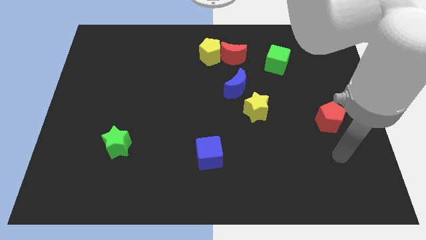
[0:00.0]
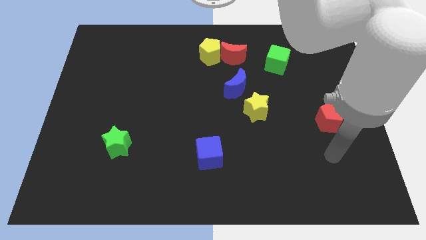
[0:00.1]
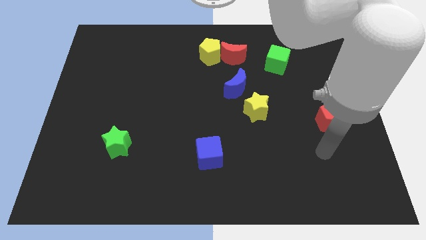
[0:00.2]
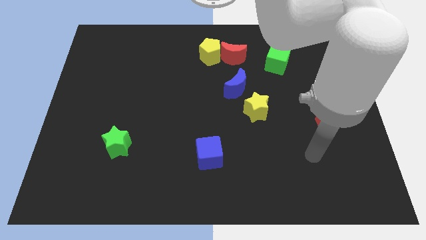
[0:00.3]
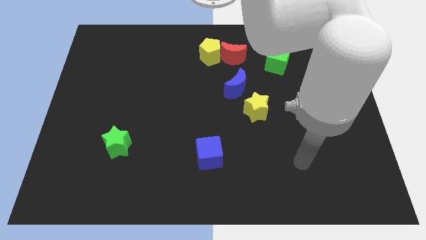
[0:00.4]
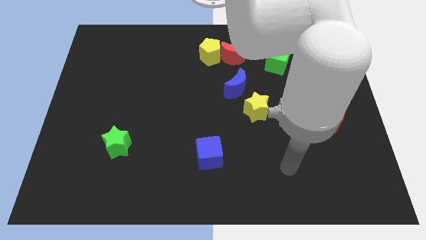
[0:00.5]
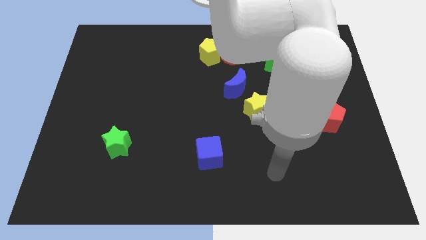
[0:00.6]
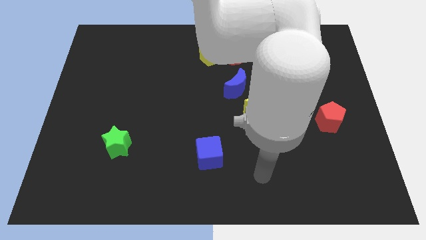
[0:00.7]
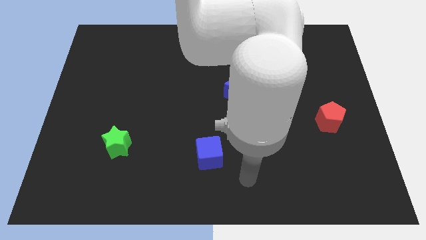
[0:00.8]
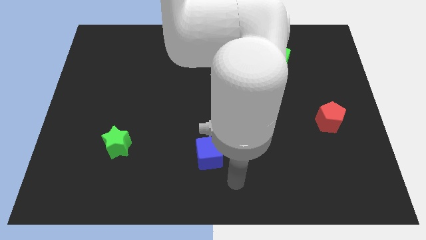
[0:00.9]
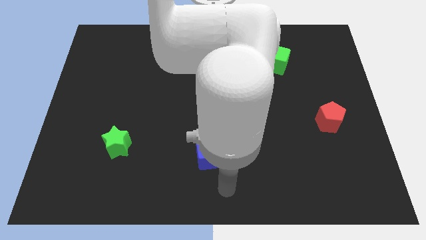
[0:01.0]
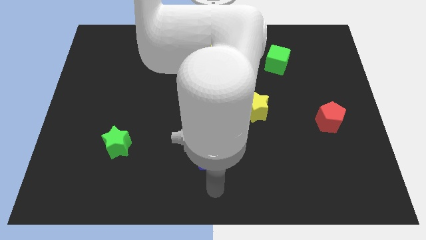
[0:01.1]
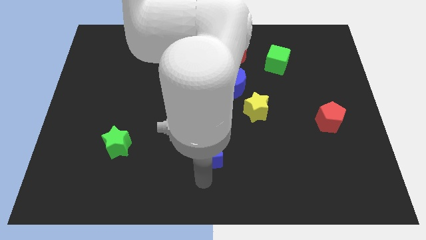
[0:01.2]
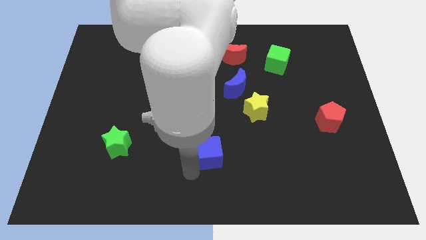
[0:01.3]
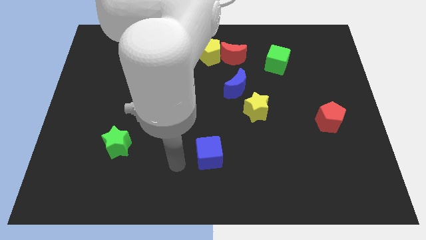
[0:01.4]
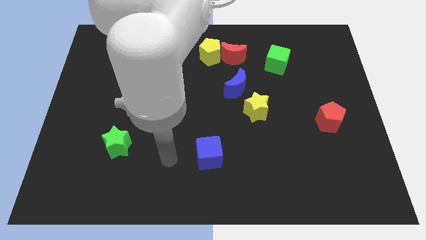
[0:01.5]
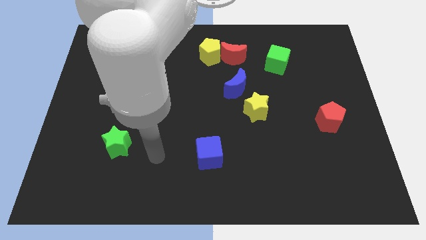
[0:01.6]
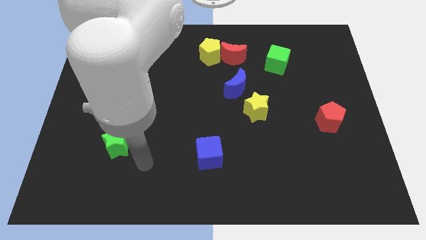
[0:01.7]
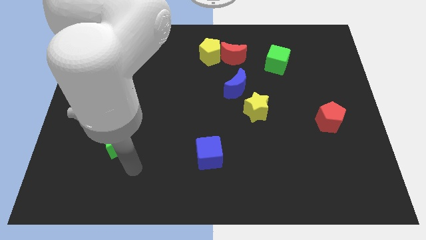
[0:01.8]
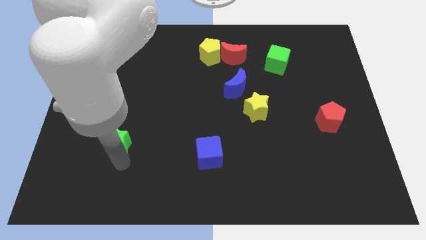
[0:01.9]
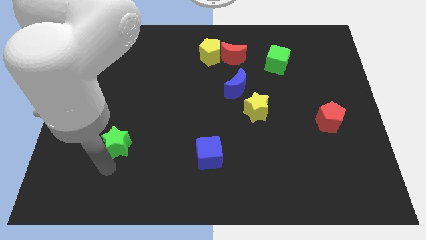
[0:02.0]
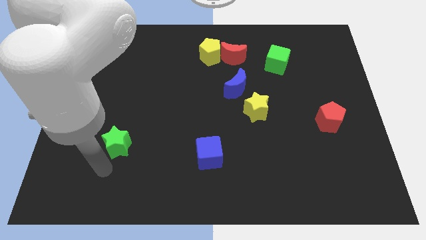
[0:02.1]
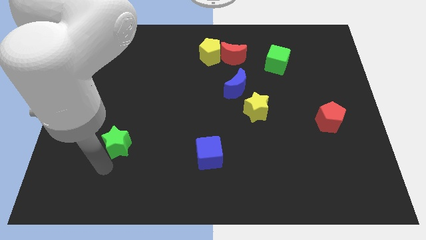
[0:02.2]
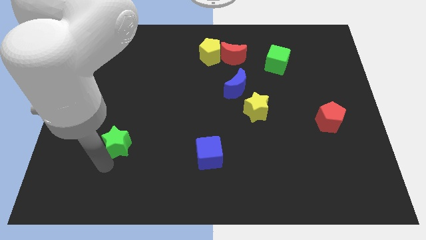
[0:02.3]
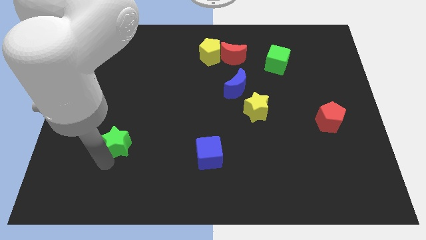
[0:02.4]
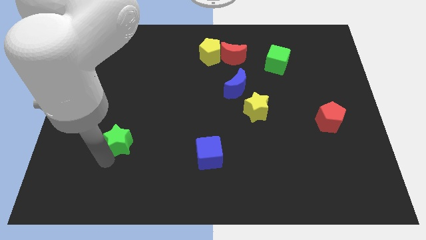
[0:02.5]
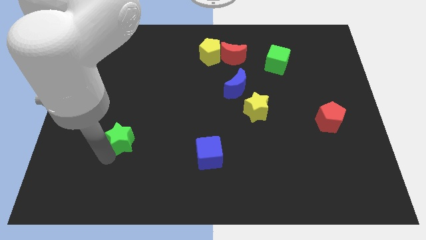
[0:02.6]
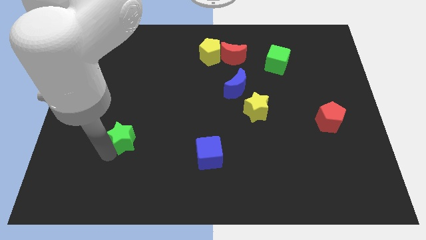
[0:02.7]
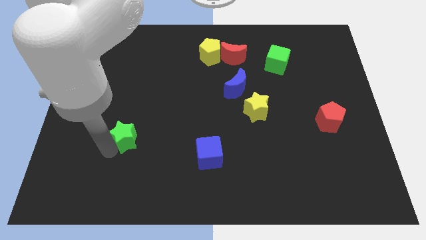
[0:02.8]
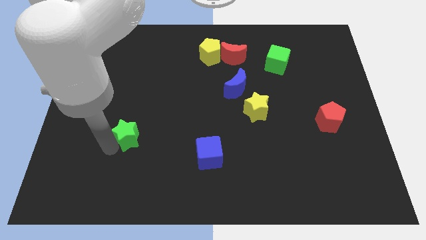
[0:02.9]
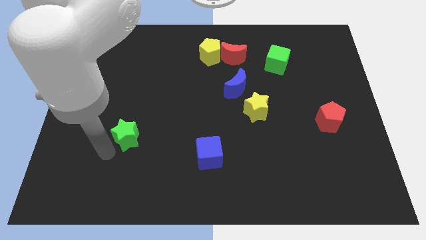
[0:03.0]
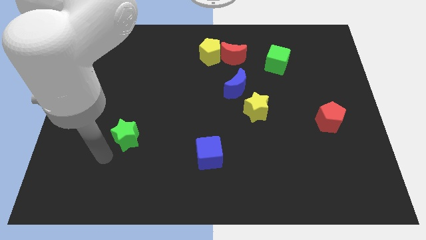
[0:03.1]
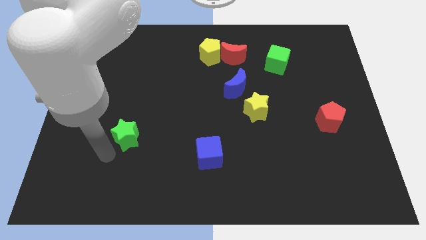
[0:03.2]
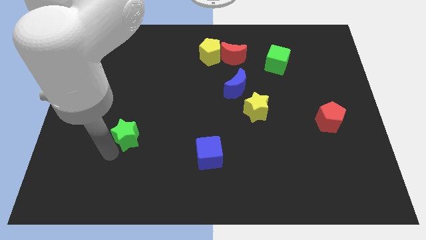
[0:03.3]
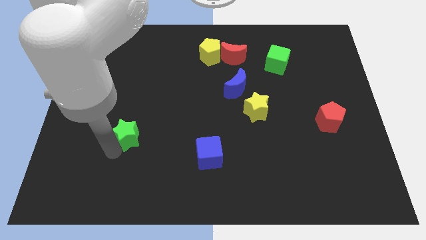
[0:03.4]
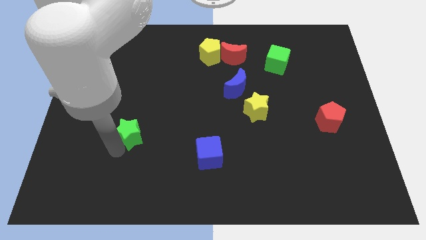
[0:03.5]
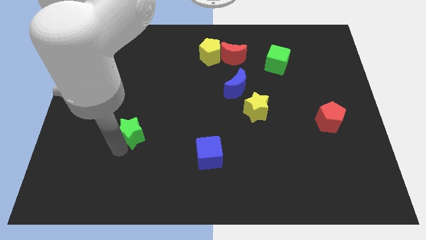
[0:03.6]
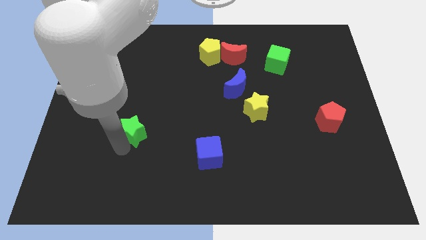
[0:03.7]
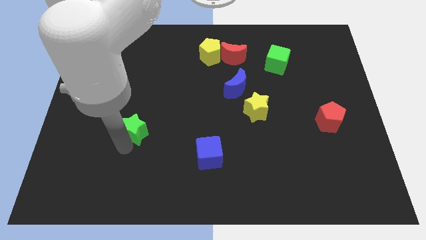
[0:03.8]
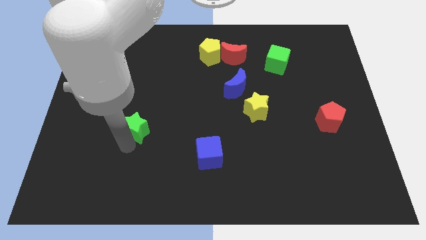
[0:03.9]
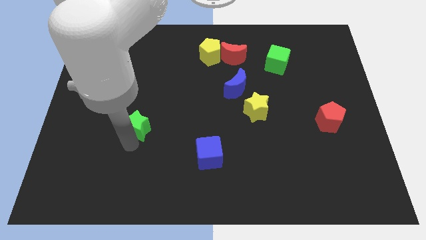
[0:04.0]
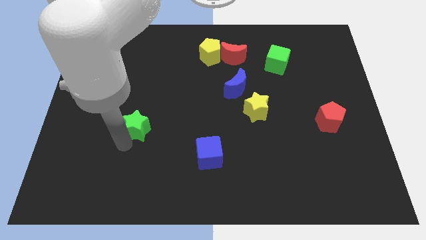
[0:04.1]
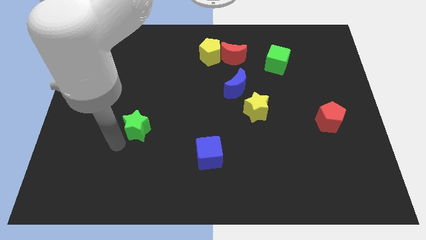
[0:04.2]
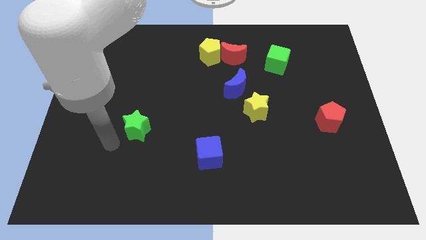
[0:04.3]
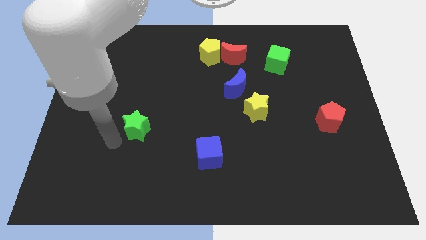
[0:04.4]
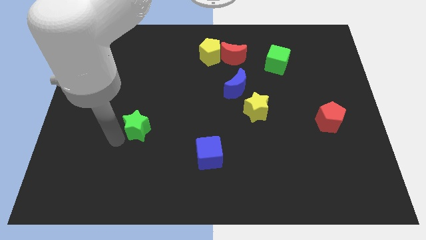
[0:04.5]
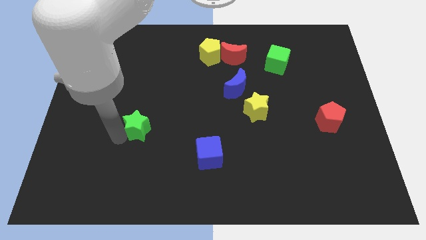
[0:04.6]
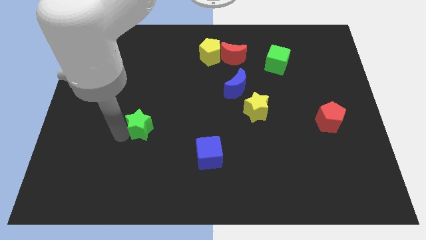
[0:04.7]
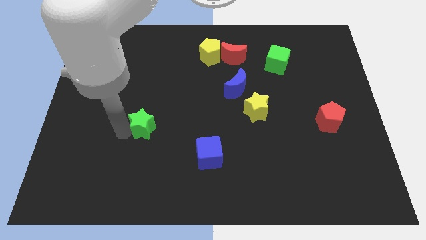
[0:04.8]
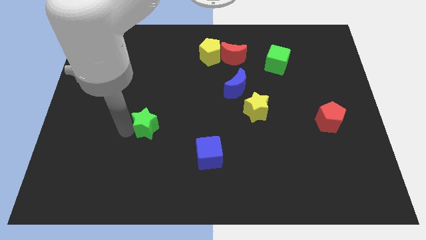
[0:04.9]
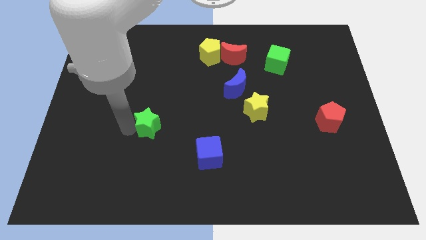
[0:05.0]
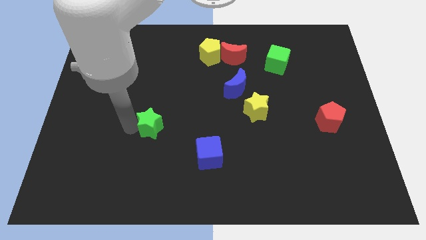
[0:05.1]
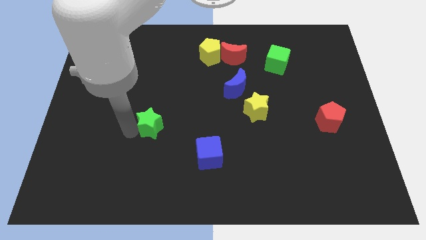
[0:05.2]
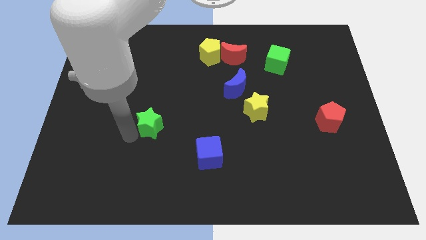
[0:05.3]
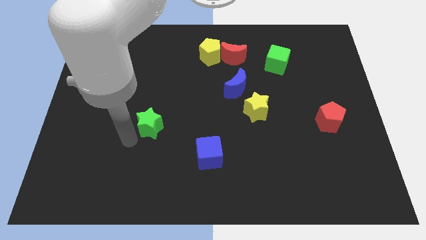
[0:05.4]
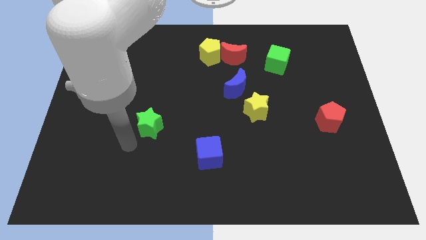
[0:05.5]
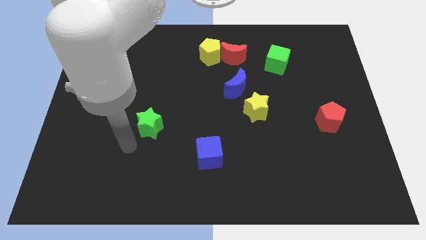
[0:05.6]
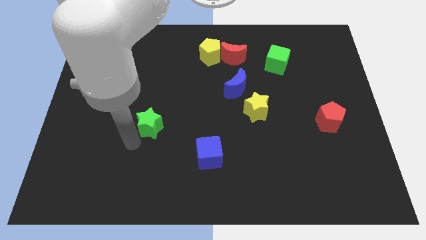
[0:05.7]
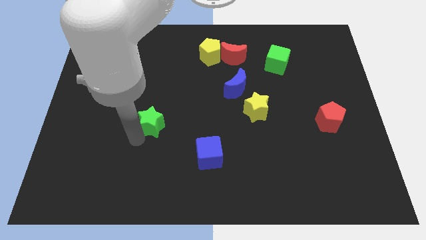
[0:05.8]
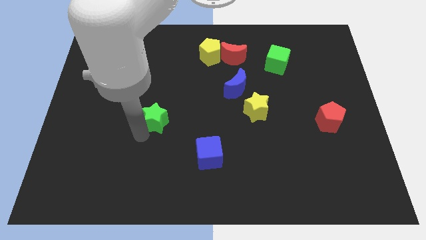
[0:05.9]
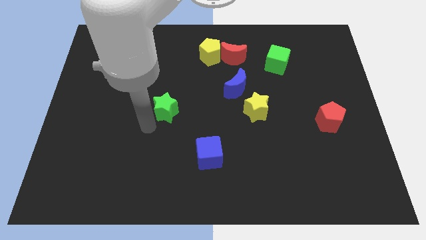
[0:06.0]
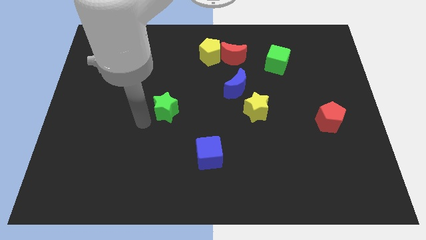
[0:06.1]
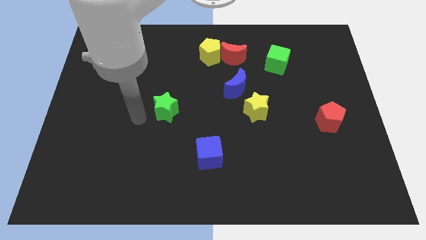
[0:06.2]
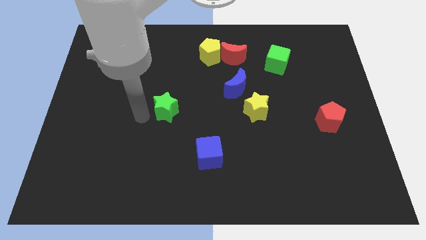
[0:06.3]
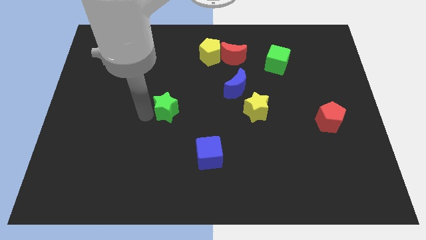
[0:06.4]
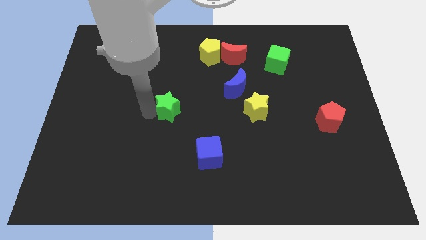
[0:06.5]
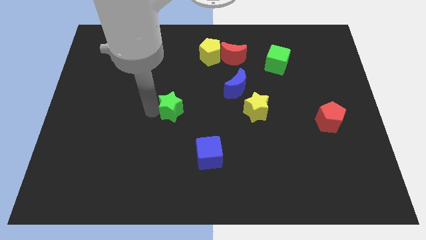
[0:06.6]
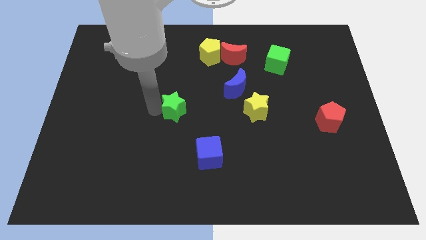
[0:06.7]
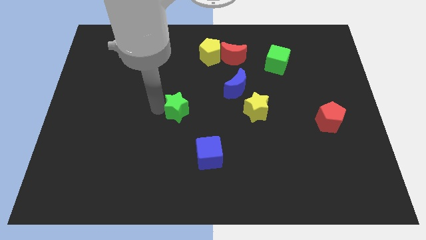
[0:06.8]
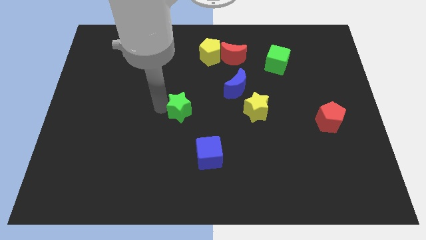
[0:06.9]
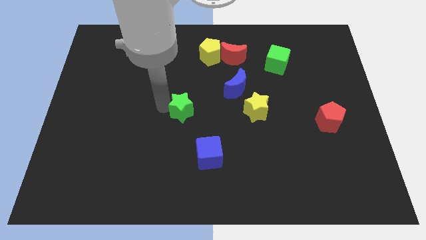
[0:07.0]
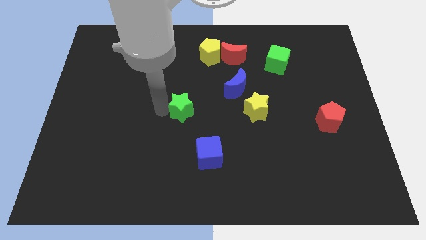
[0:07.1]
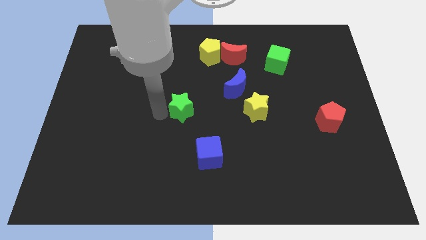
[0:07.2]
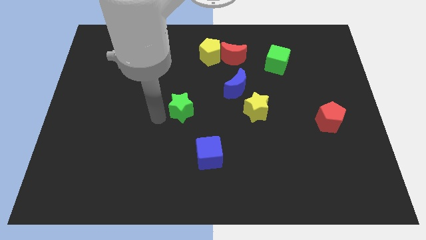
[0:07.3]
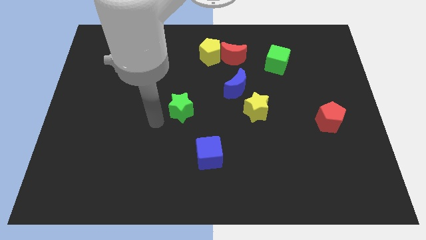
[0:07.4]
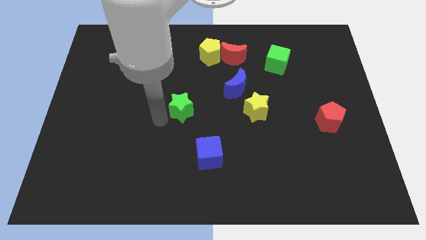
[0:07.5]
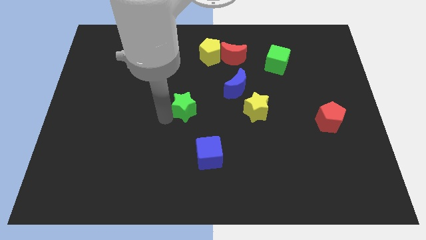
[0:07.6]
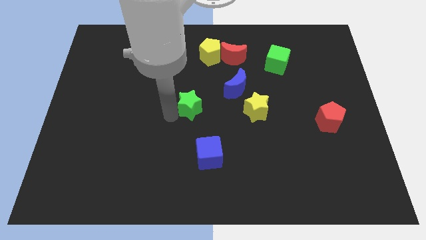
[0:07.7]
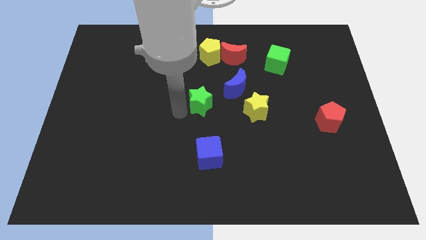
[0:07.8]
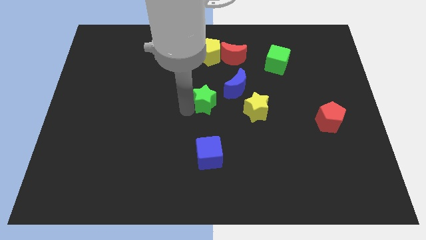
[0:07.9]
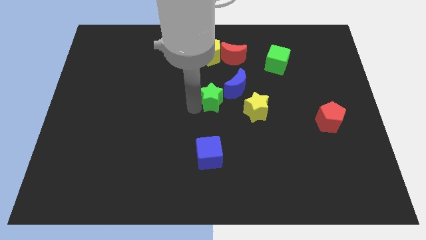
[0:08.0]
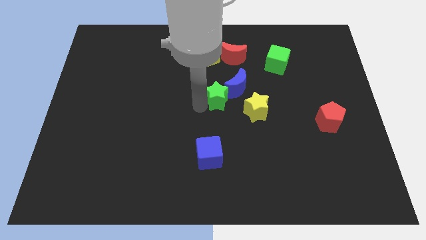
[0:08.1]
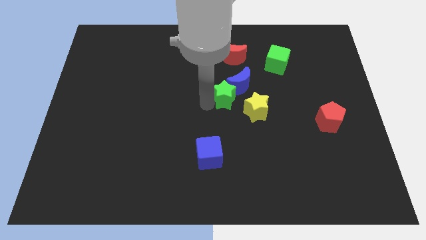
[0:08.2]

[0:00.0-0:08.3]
push the green star next to the blue moon
